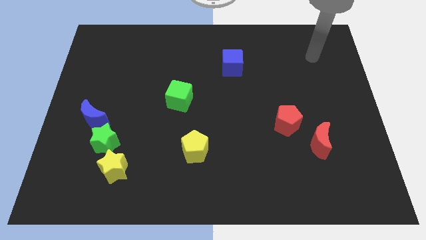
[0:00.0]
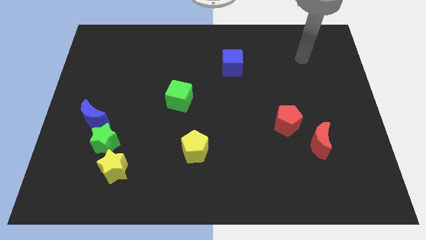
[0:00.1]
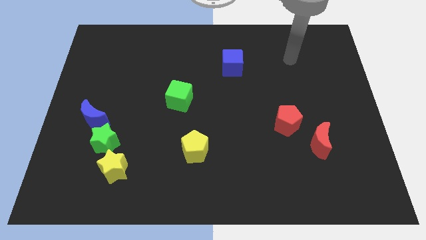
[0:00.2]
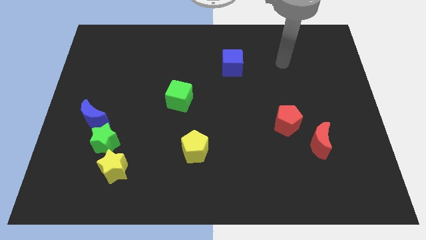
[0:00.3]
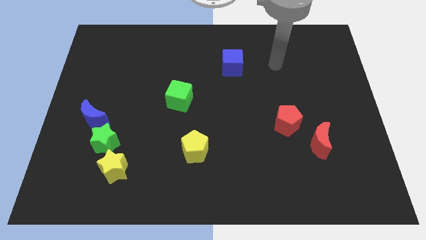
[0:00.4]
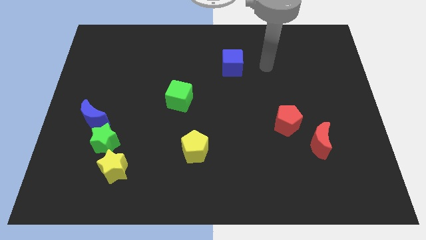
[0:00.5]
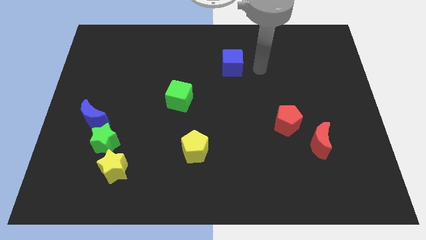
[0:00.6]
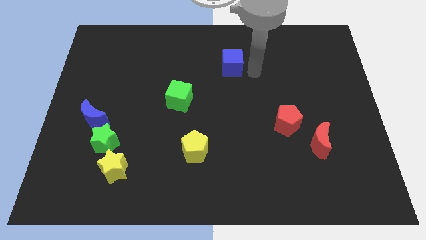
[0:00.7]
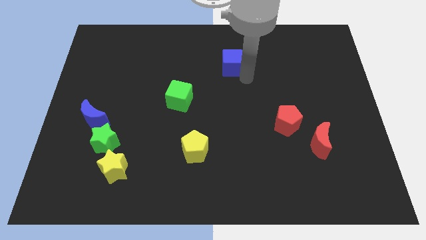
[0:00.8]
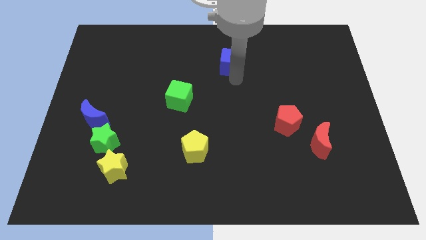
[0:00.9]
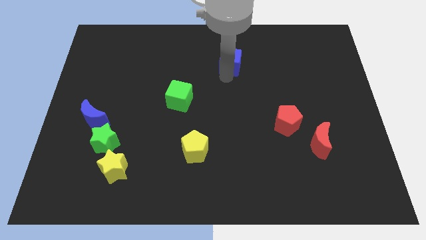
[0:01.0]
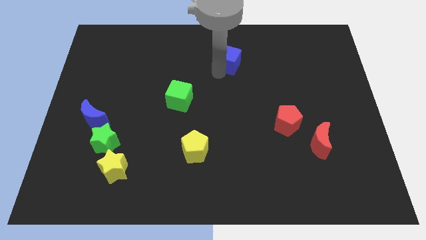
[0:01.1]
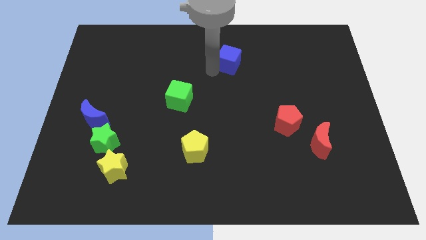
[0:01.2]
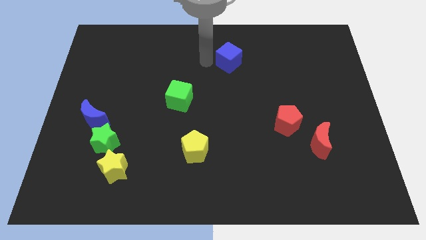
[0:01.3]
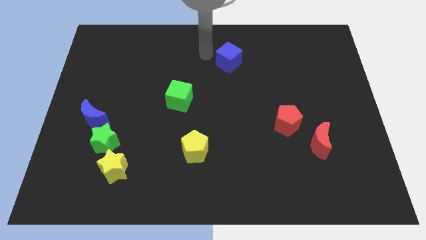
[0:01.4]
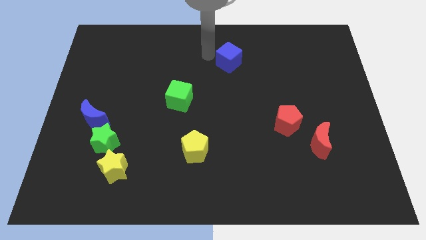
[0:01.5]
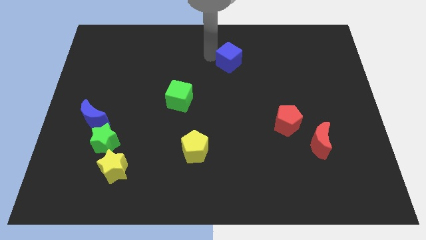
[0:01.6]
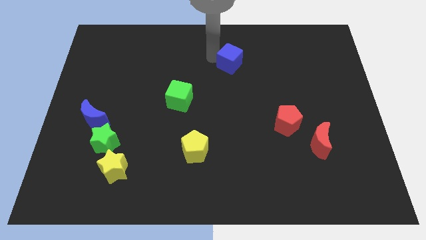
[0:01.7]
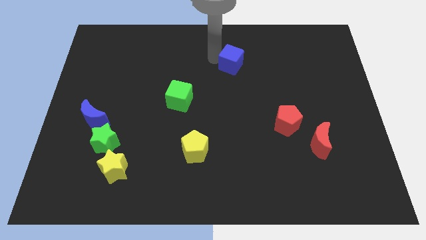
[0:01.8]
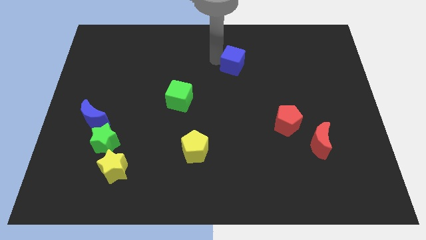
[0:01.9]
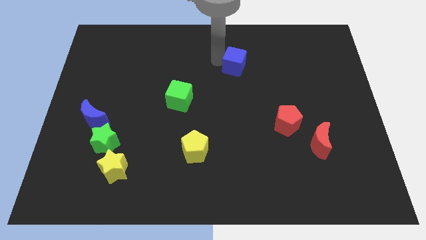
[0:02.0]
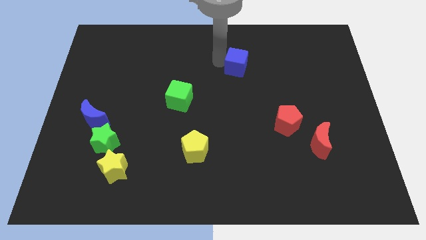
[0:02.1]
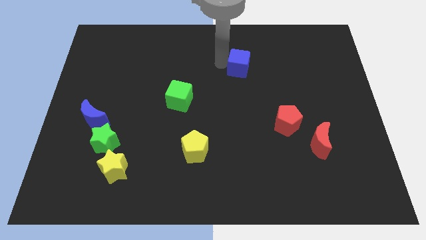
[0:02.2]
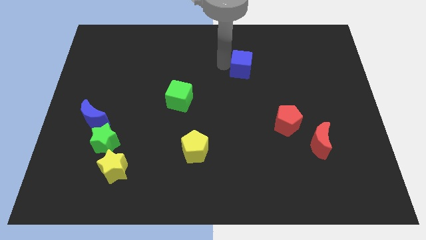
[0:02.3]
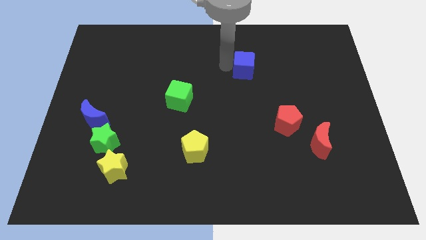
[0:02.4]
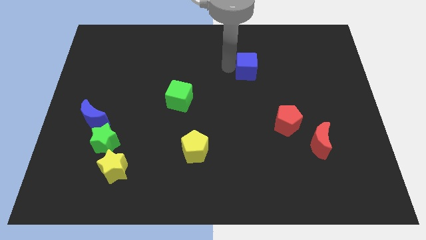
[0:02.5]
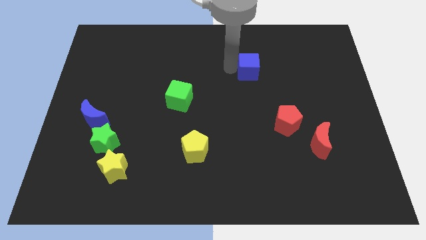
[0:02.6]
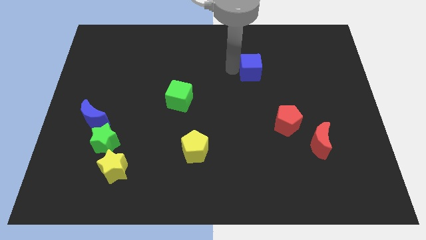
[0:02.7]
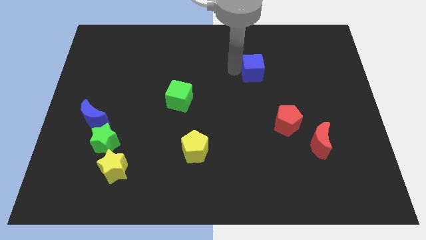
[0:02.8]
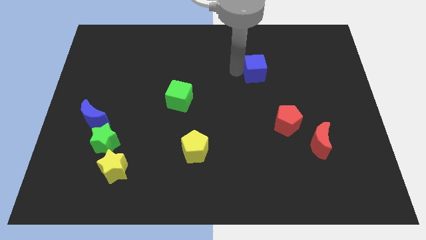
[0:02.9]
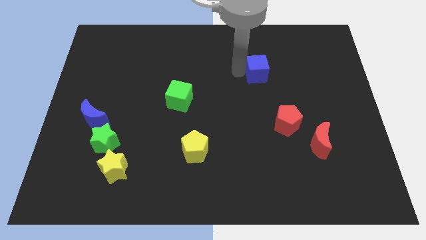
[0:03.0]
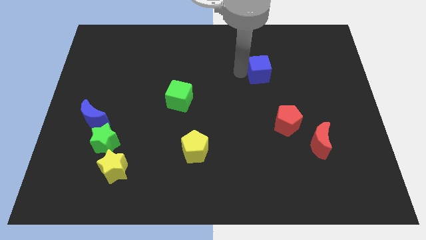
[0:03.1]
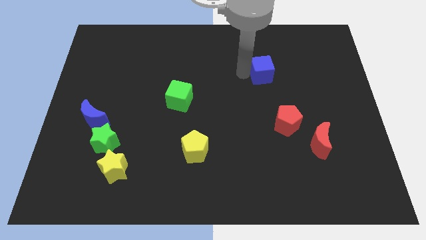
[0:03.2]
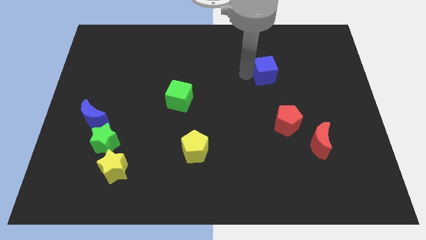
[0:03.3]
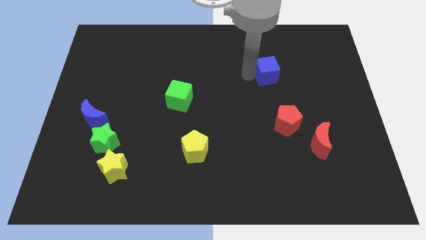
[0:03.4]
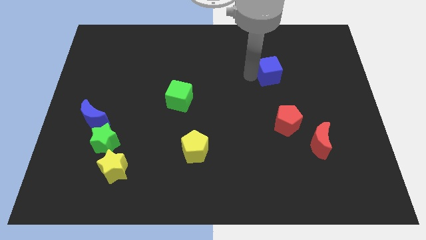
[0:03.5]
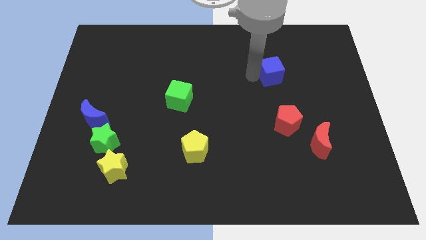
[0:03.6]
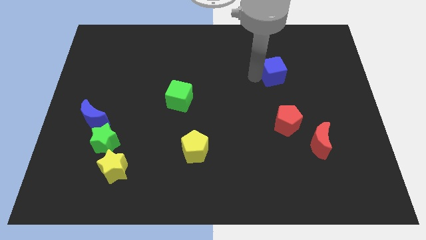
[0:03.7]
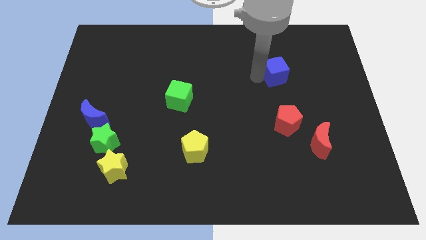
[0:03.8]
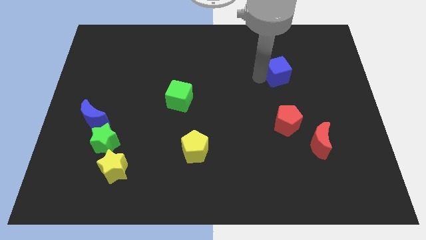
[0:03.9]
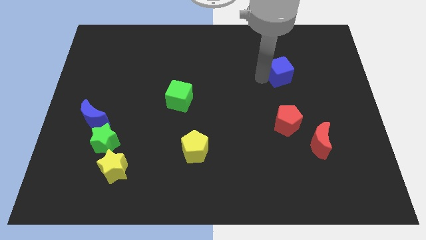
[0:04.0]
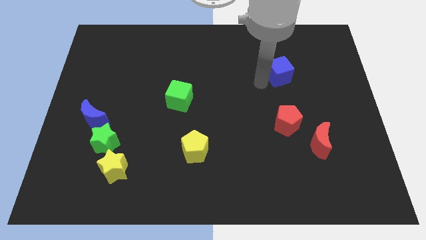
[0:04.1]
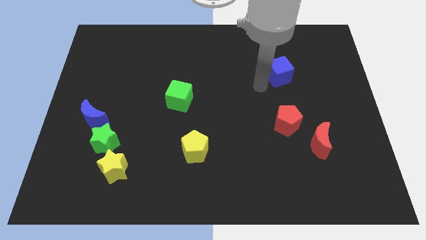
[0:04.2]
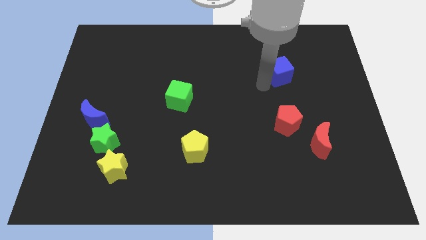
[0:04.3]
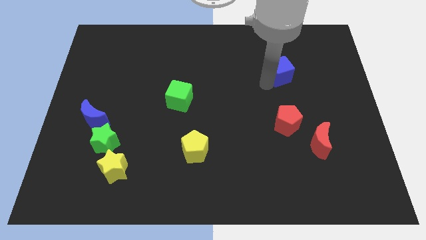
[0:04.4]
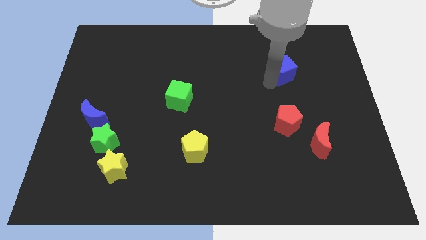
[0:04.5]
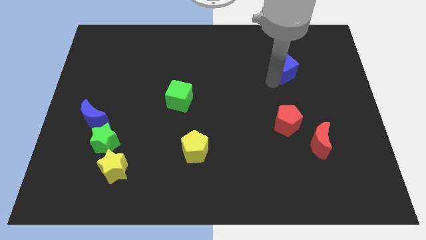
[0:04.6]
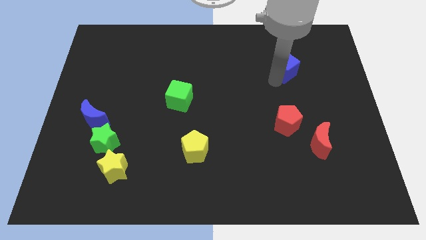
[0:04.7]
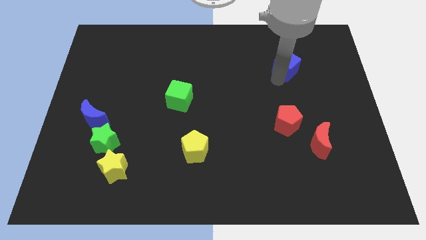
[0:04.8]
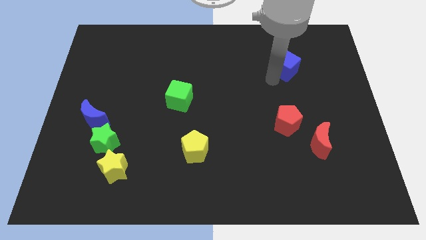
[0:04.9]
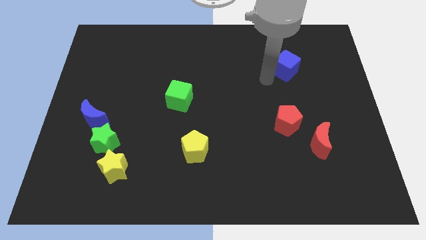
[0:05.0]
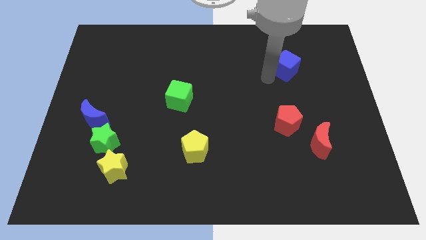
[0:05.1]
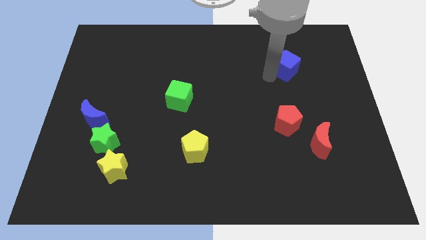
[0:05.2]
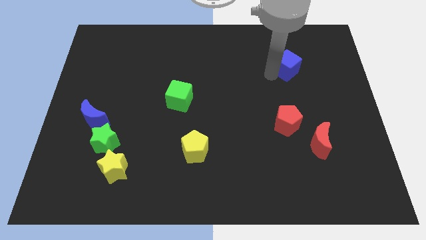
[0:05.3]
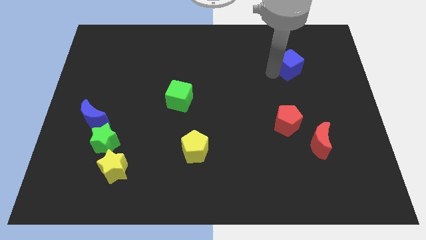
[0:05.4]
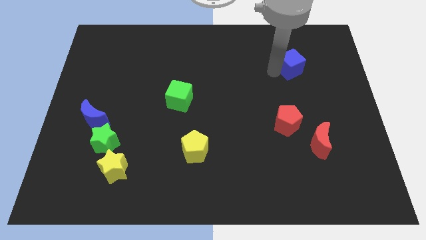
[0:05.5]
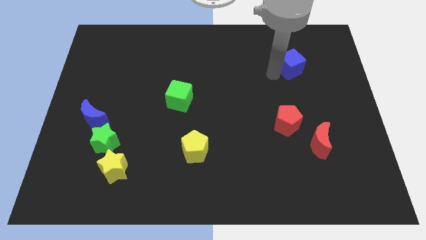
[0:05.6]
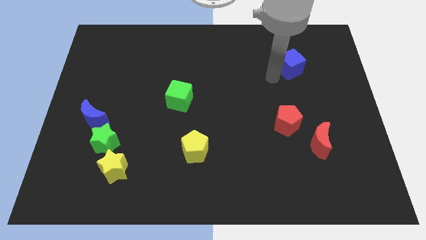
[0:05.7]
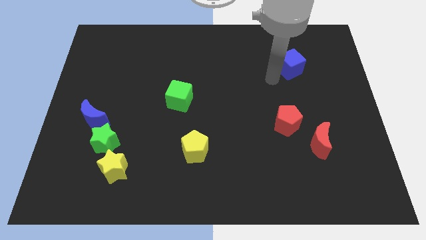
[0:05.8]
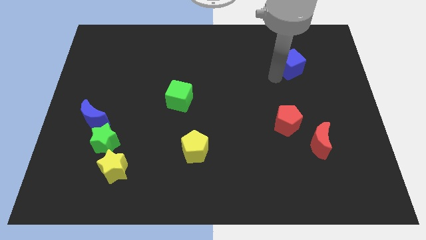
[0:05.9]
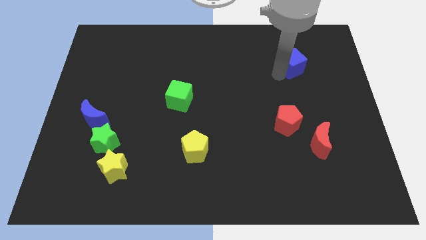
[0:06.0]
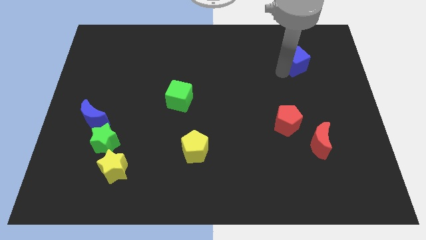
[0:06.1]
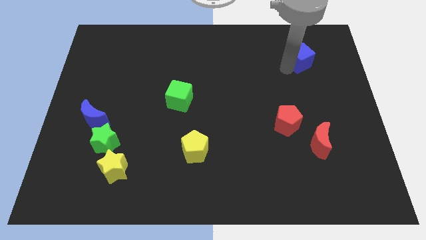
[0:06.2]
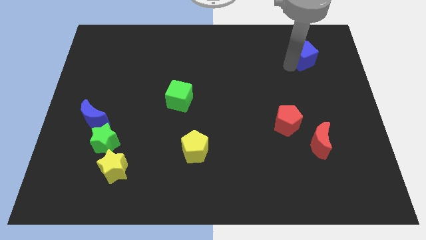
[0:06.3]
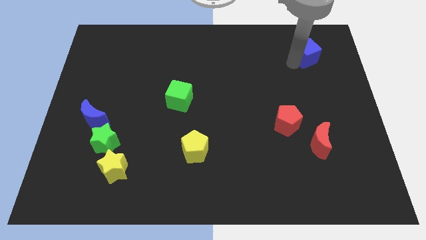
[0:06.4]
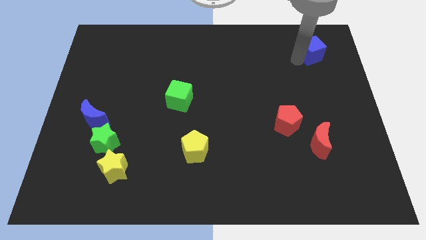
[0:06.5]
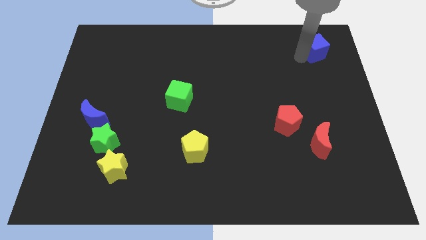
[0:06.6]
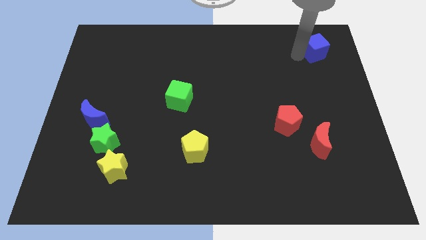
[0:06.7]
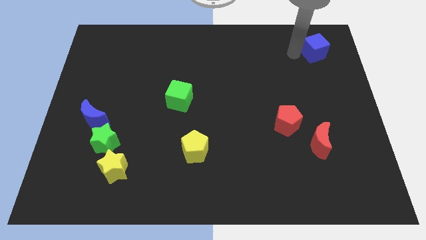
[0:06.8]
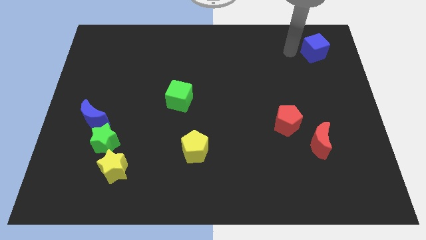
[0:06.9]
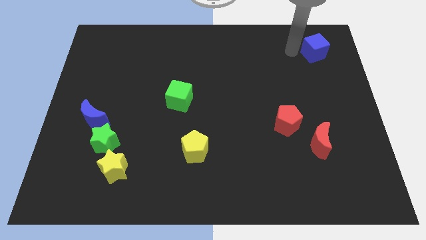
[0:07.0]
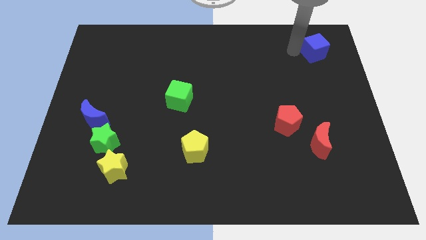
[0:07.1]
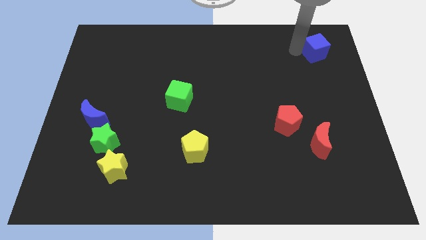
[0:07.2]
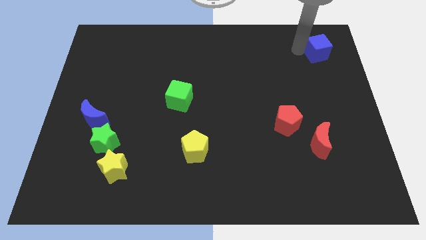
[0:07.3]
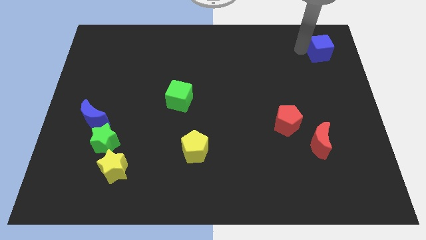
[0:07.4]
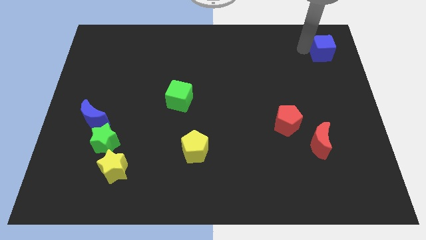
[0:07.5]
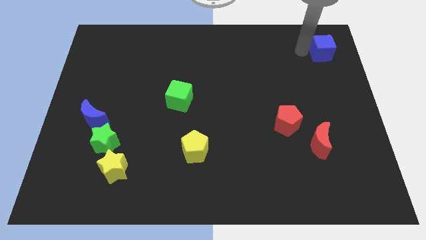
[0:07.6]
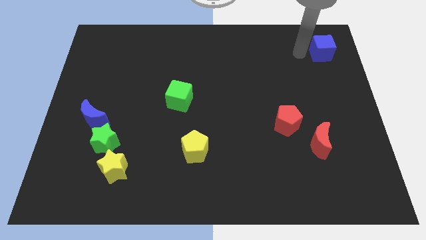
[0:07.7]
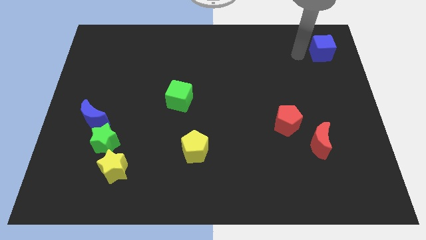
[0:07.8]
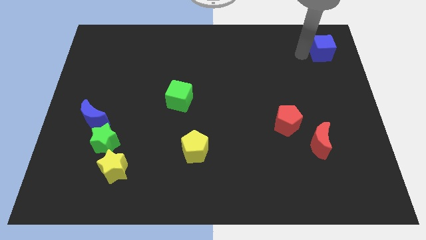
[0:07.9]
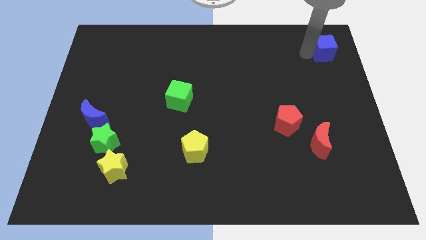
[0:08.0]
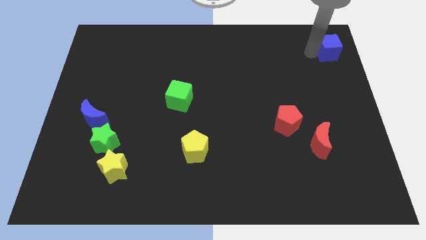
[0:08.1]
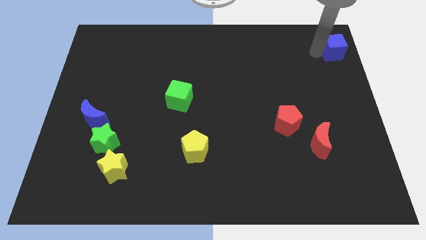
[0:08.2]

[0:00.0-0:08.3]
push the blue cube to the top right corner
